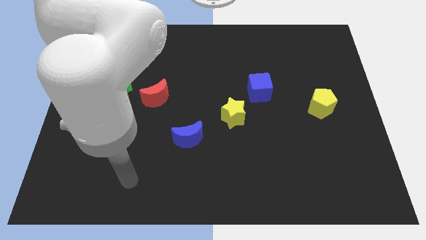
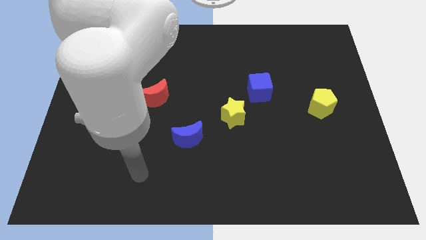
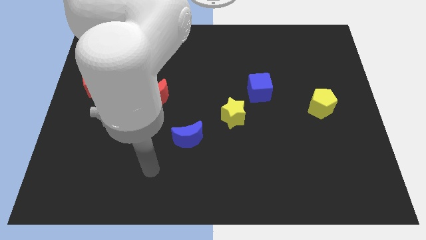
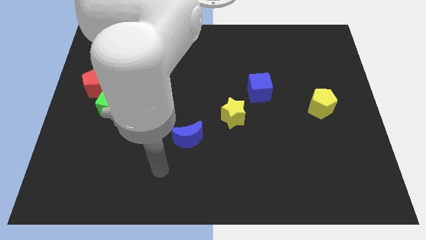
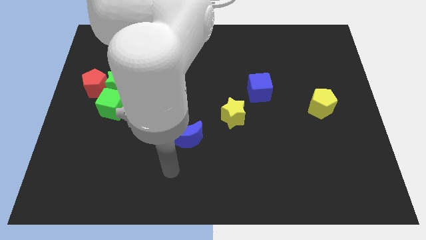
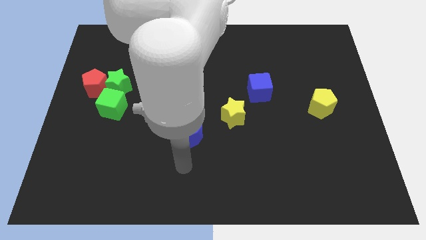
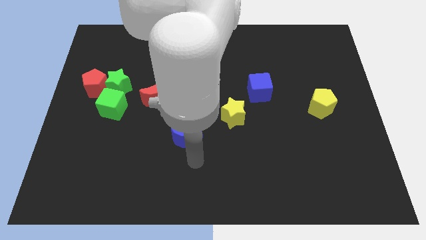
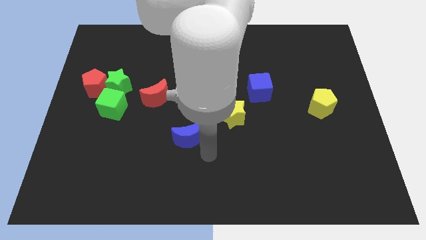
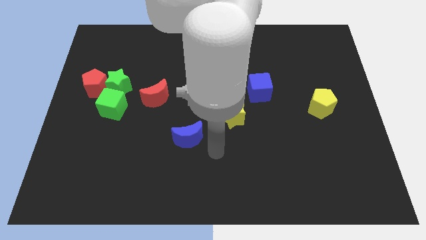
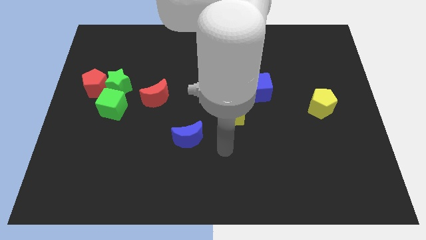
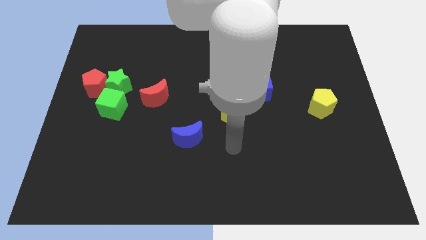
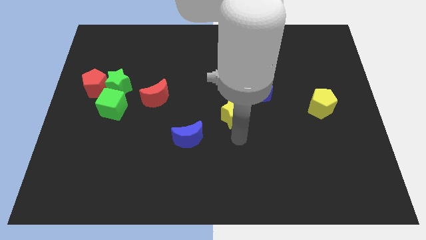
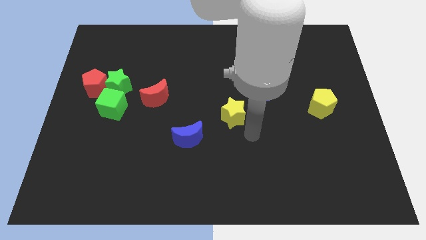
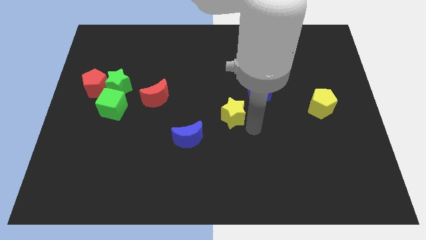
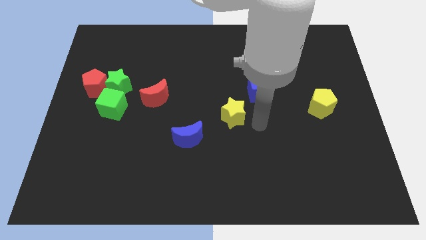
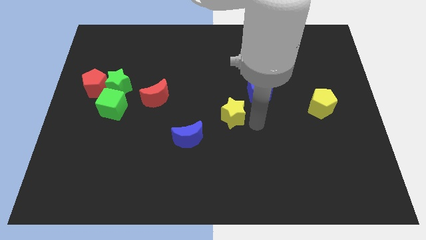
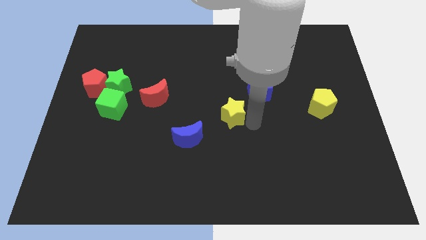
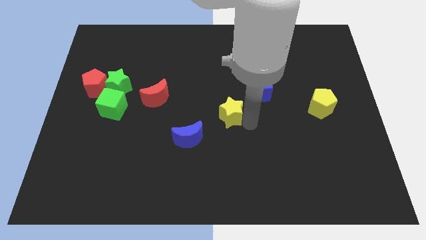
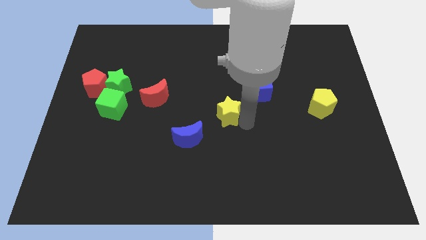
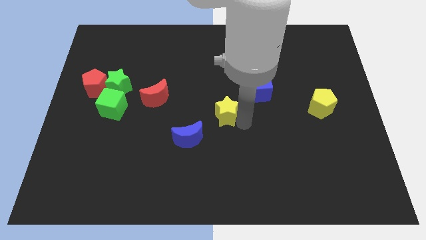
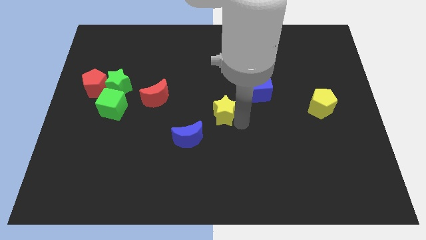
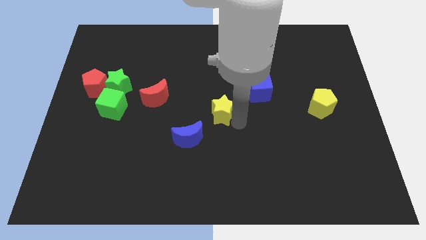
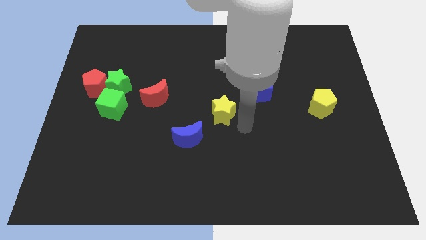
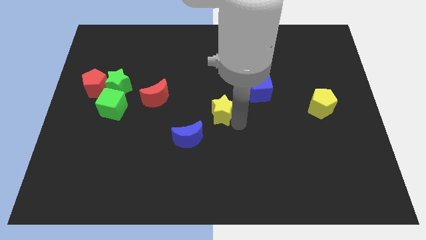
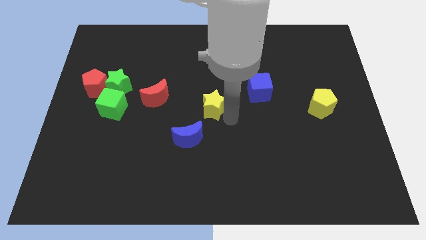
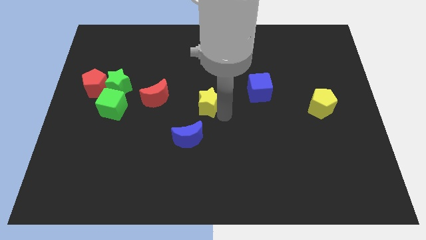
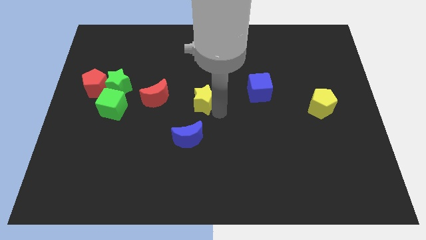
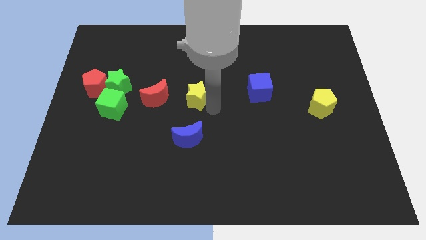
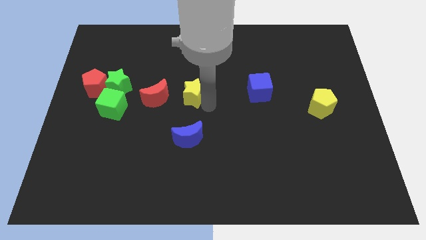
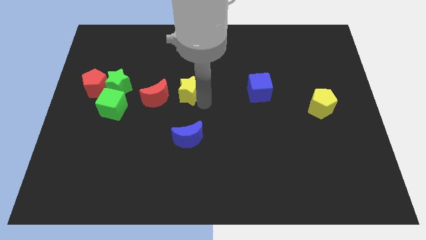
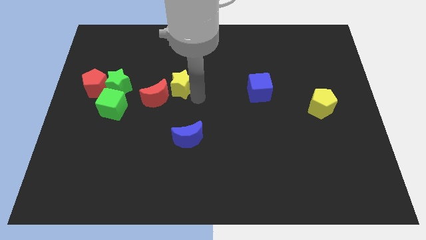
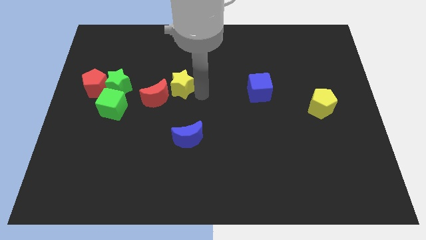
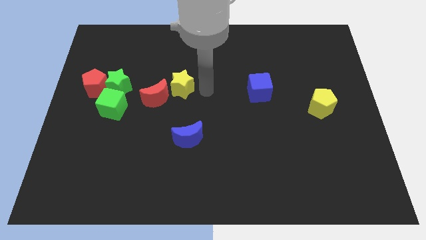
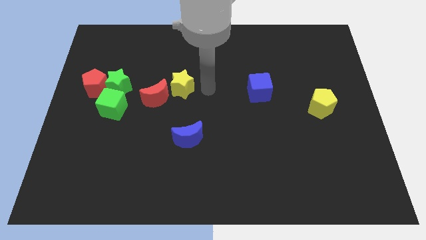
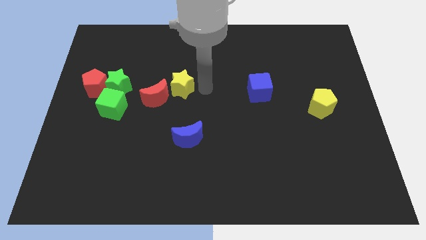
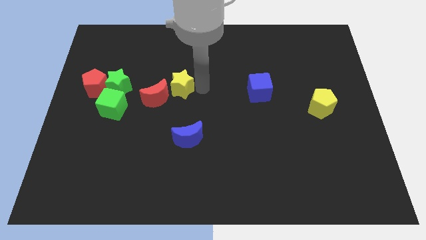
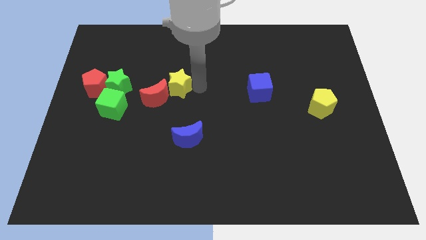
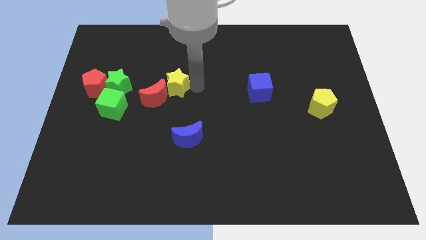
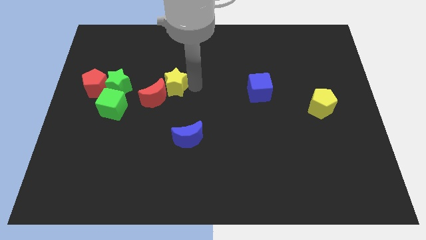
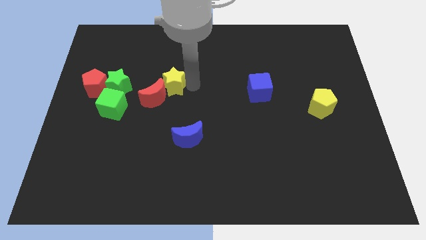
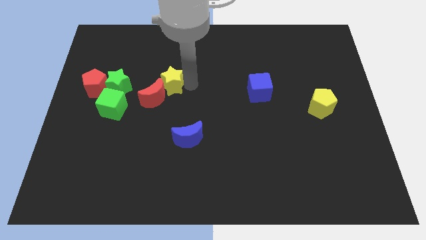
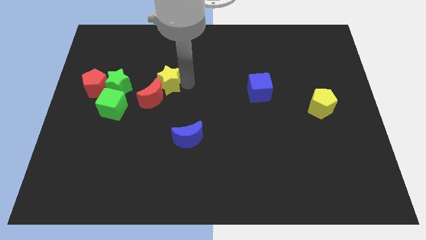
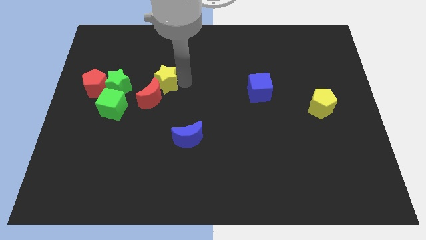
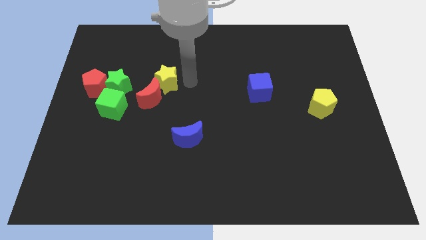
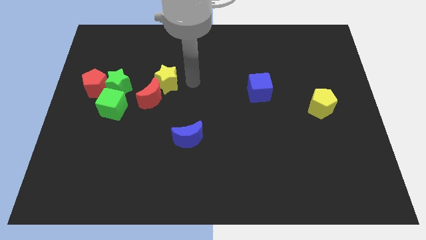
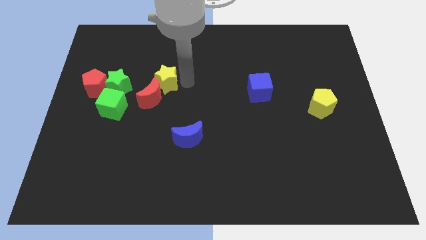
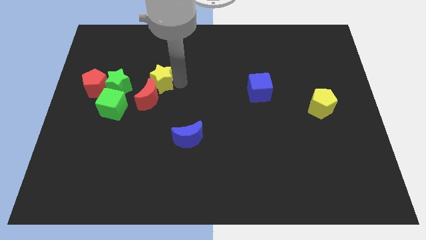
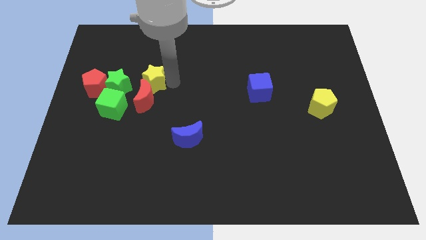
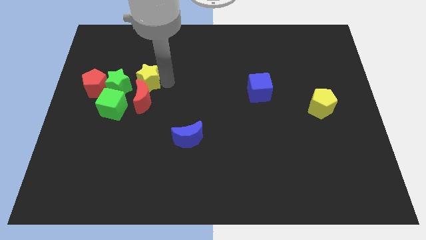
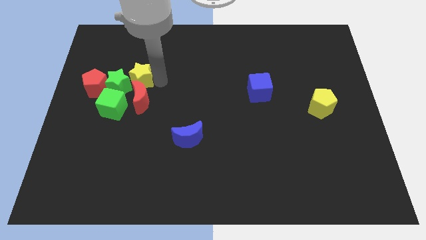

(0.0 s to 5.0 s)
put the yellow star close to the green star

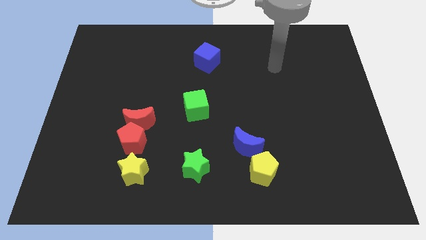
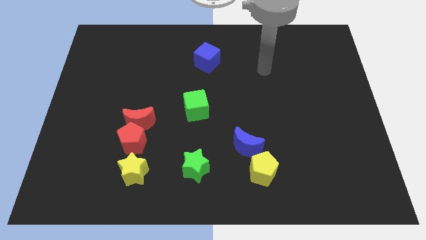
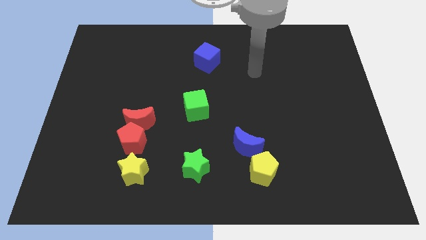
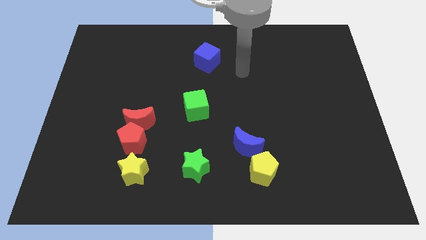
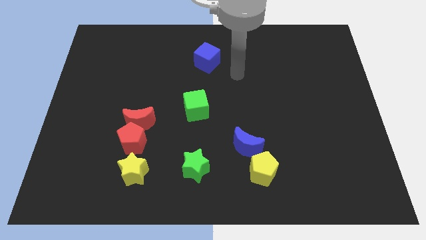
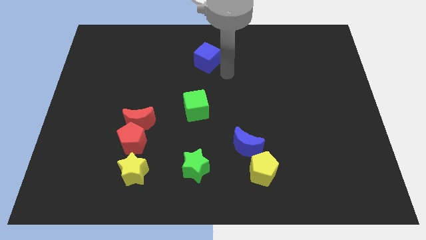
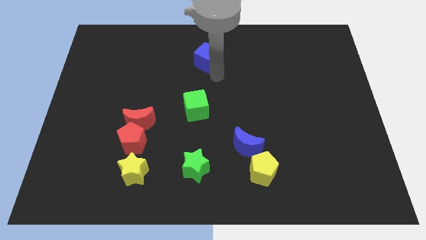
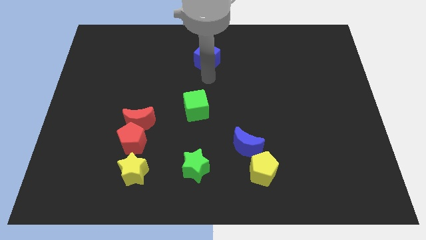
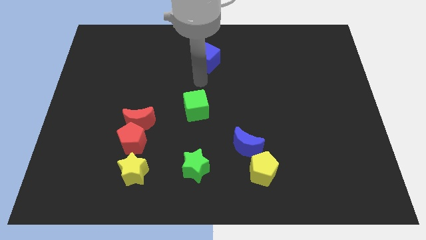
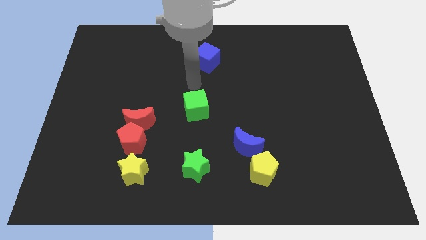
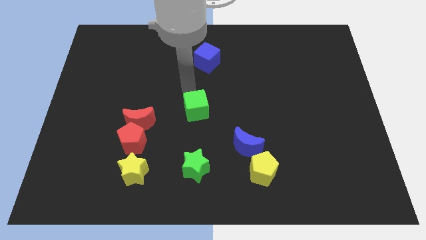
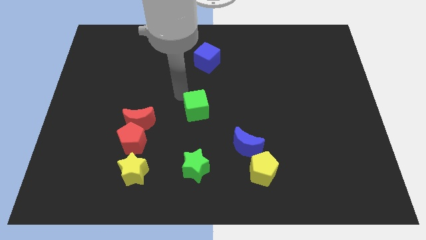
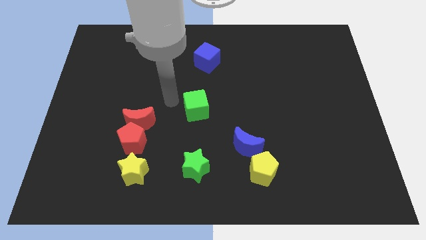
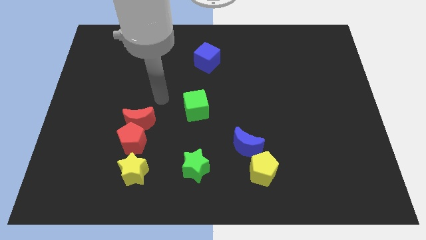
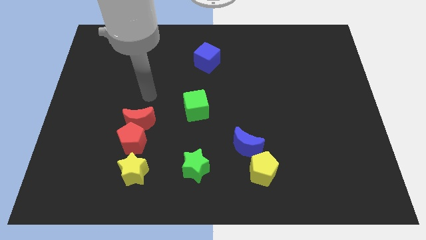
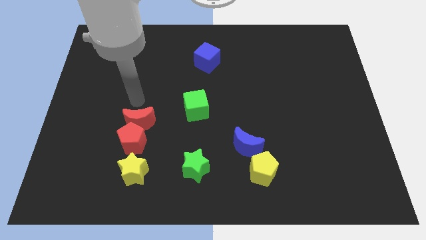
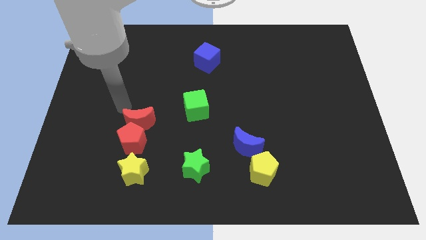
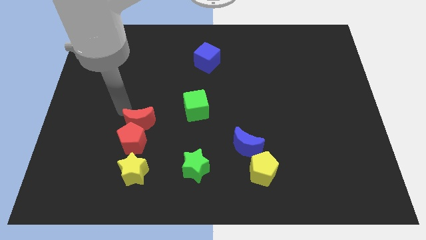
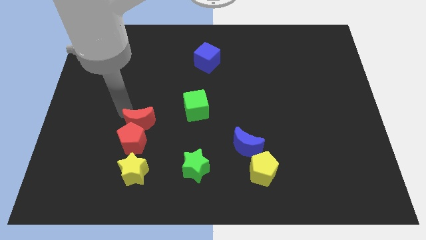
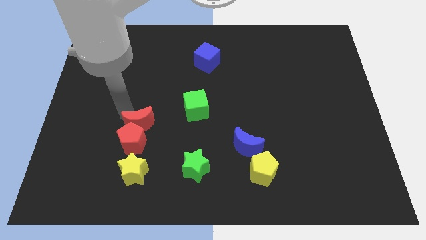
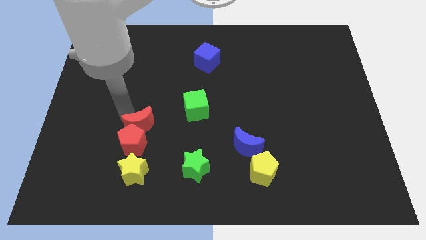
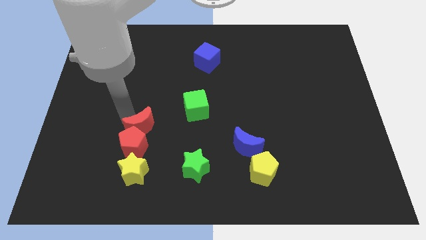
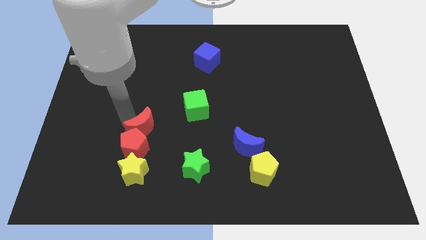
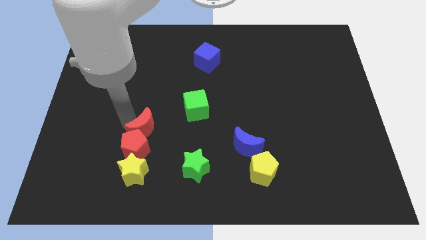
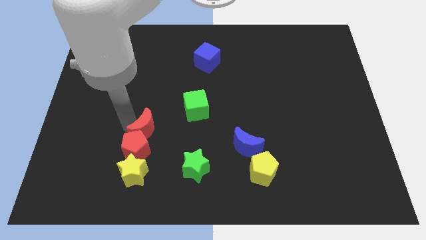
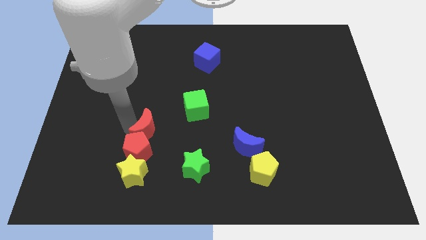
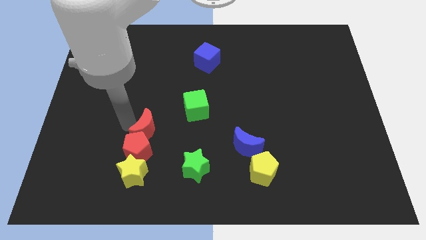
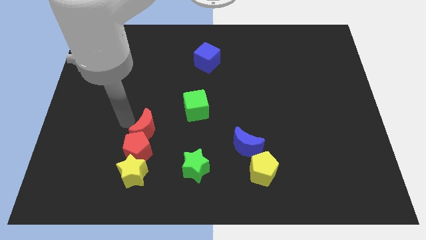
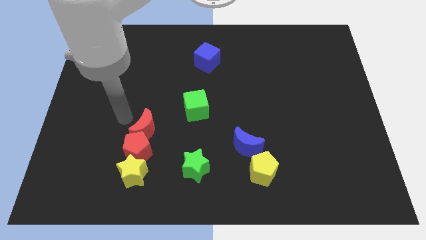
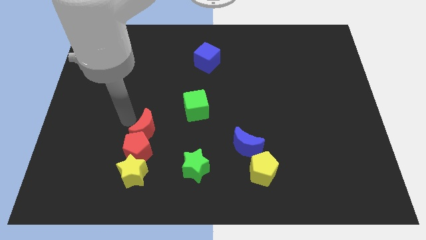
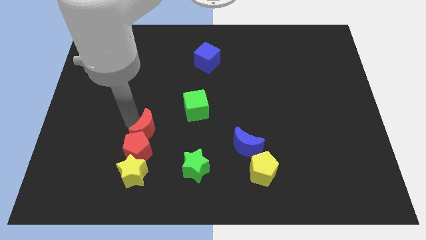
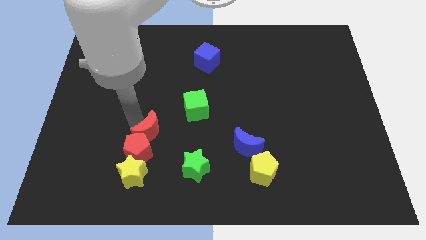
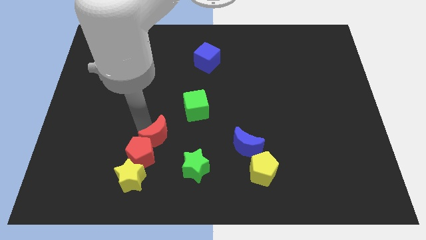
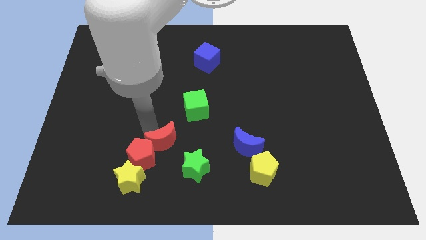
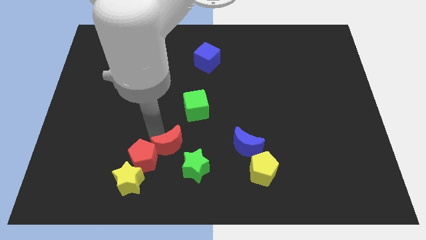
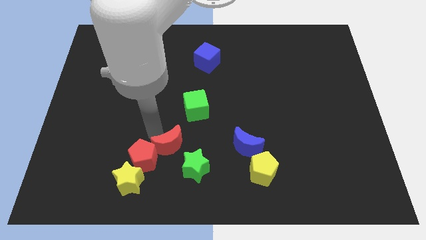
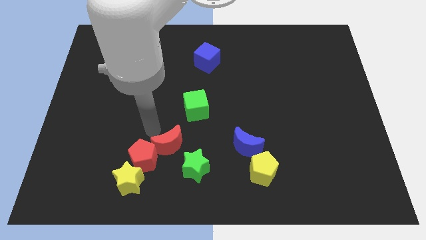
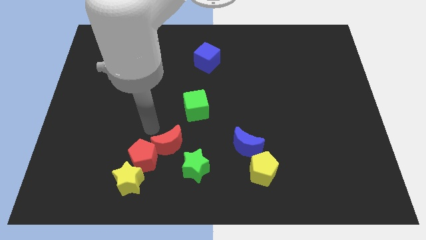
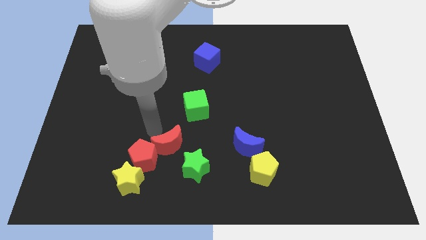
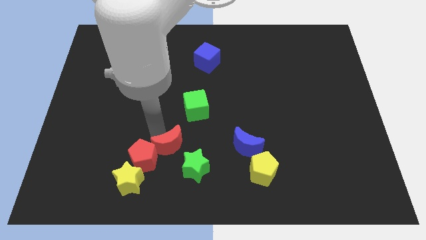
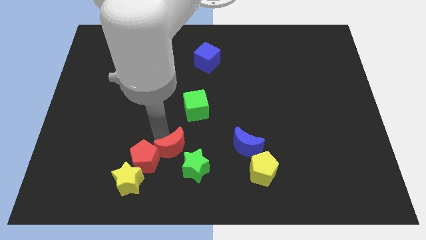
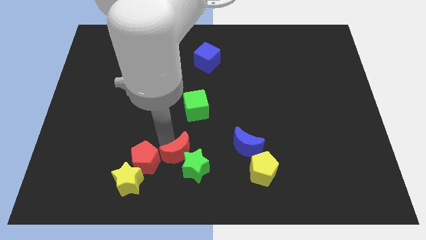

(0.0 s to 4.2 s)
push the red moon close to the green star
